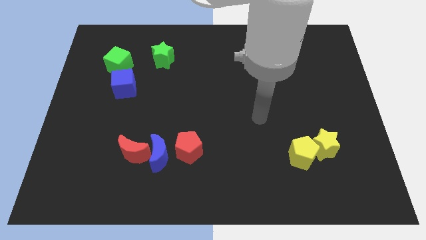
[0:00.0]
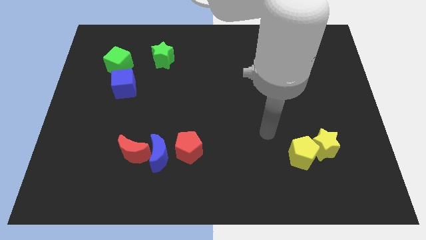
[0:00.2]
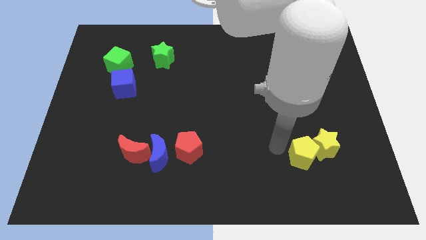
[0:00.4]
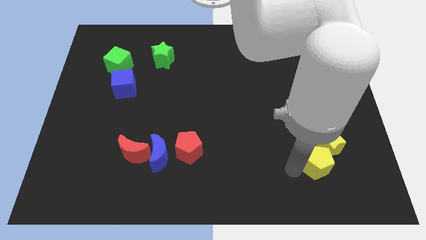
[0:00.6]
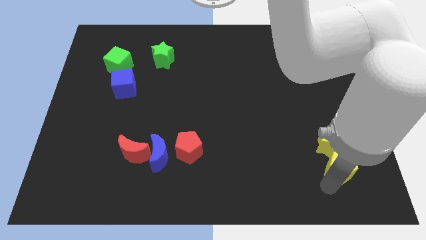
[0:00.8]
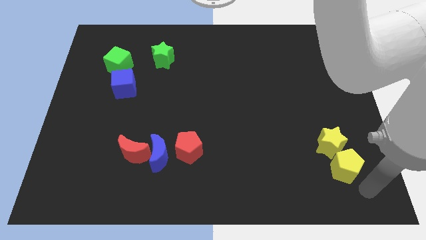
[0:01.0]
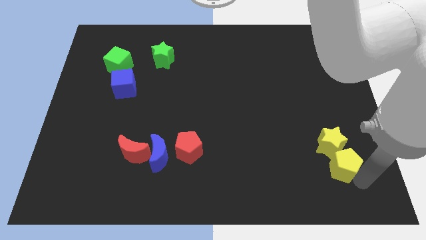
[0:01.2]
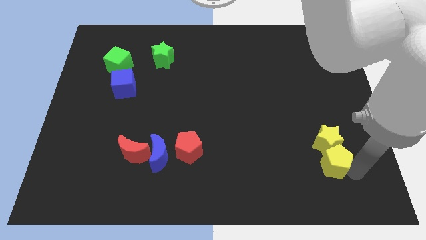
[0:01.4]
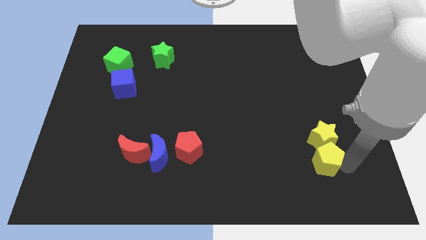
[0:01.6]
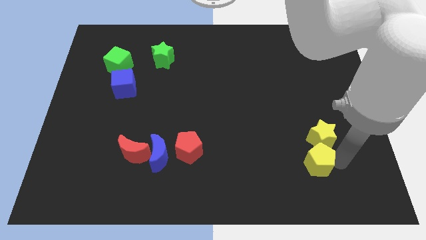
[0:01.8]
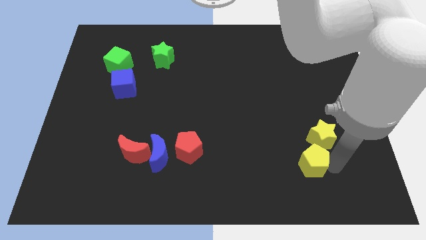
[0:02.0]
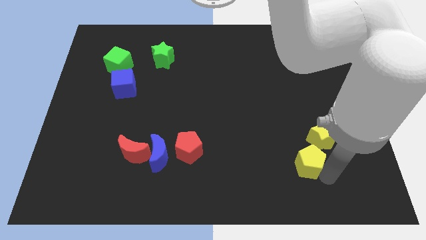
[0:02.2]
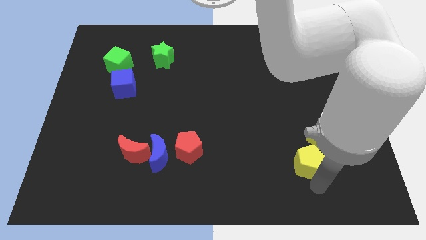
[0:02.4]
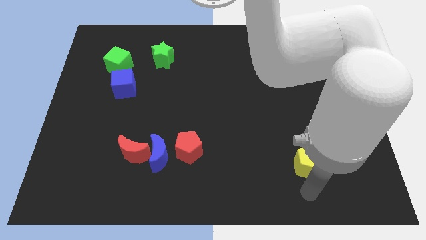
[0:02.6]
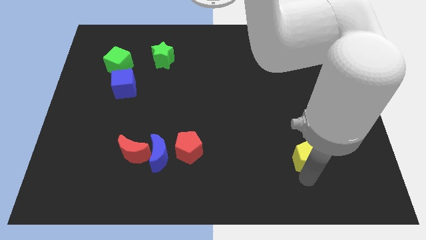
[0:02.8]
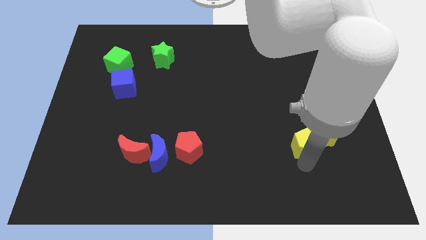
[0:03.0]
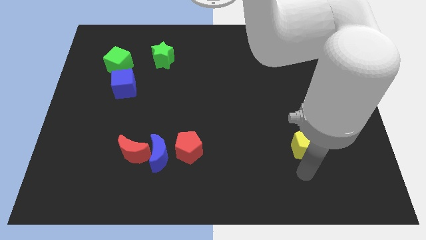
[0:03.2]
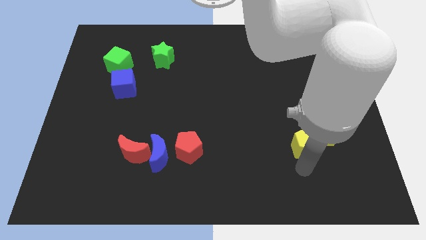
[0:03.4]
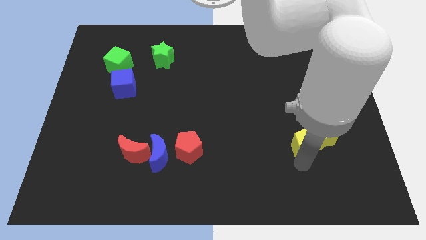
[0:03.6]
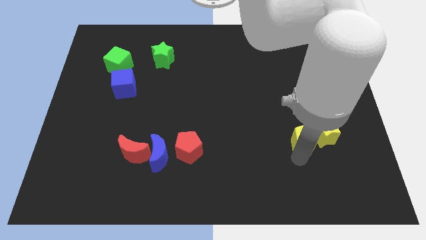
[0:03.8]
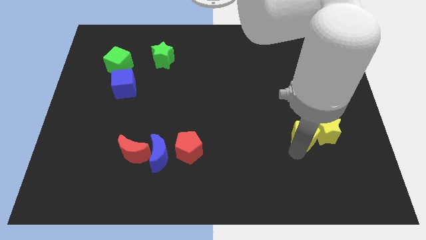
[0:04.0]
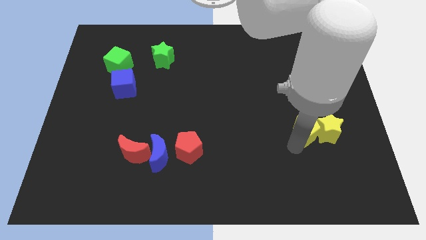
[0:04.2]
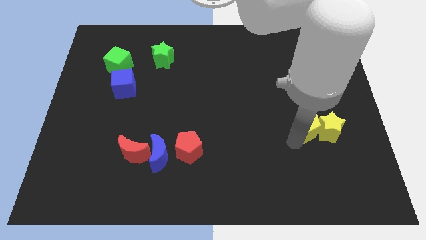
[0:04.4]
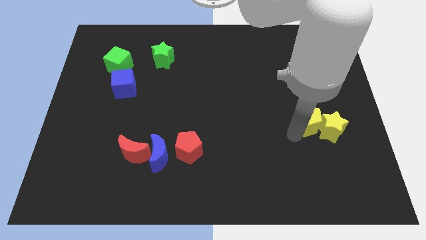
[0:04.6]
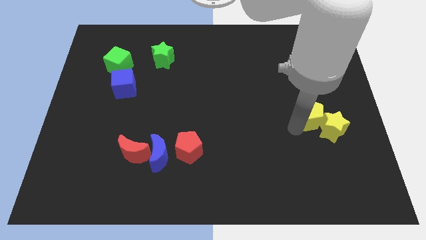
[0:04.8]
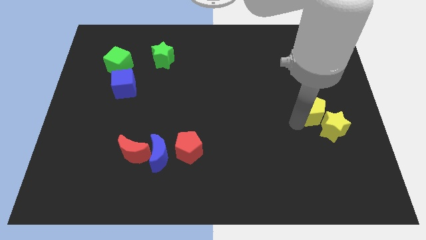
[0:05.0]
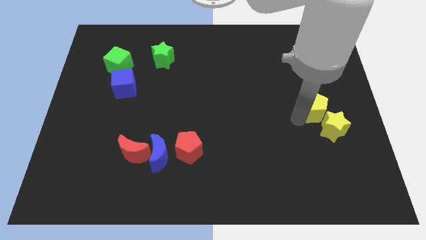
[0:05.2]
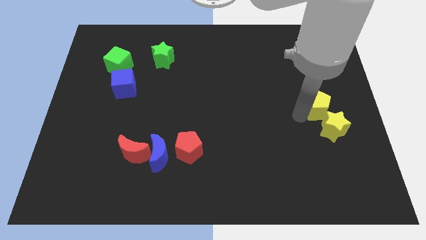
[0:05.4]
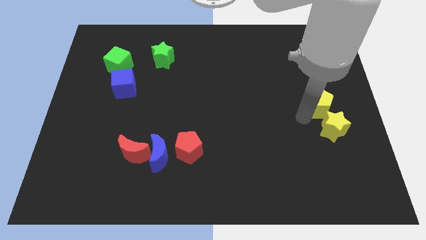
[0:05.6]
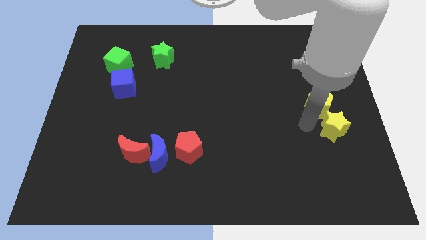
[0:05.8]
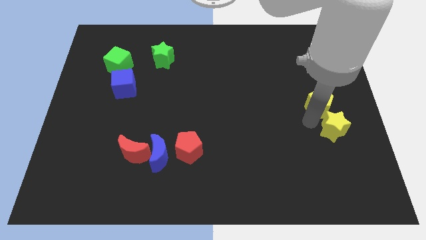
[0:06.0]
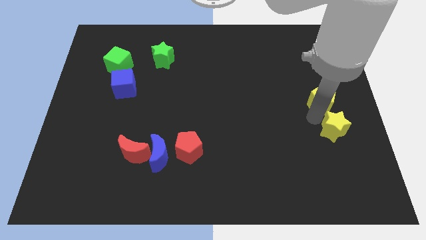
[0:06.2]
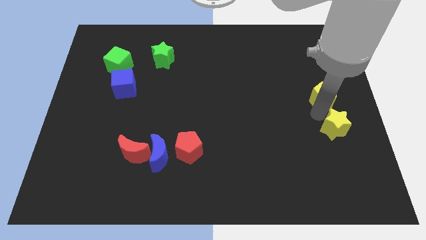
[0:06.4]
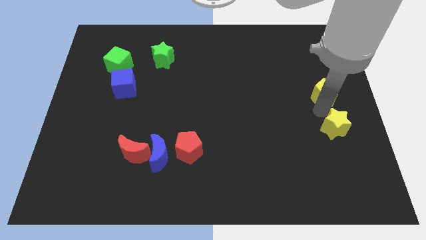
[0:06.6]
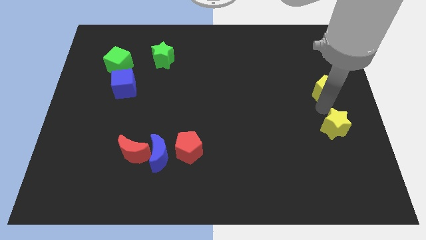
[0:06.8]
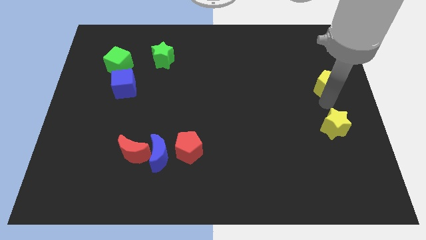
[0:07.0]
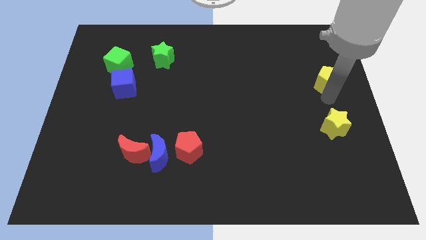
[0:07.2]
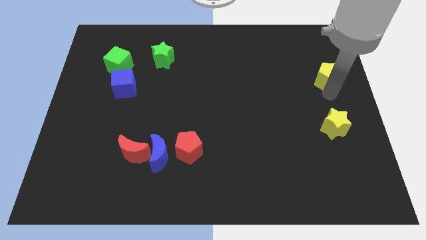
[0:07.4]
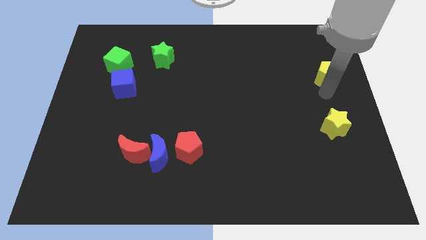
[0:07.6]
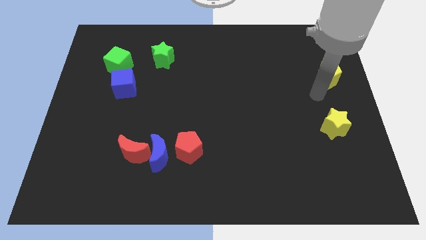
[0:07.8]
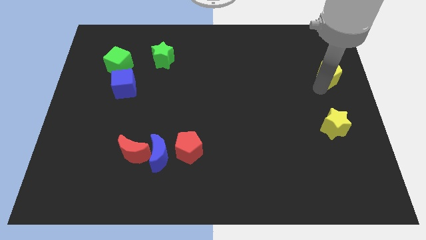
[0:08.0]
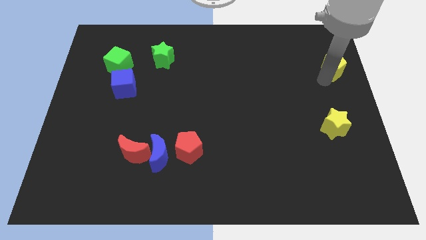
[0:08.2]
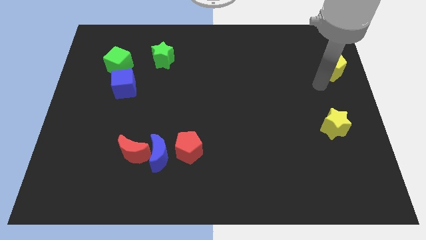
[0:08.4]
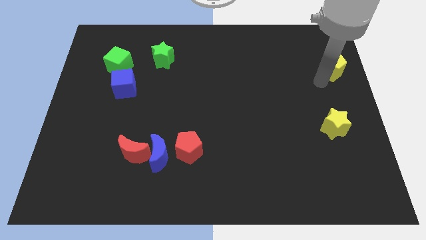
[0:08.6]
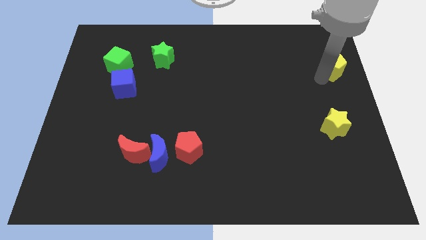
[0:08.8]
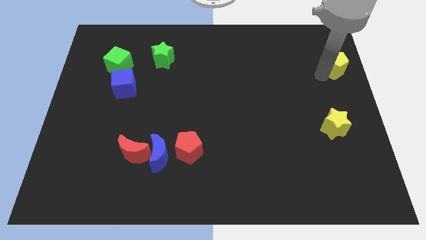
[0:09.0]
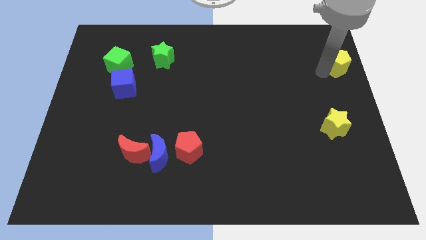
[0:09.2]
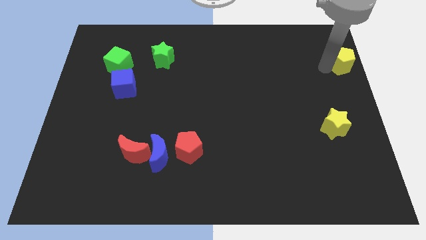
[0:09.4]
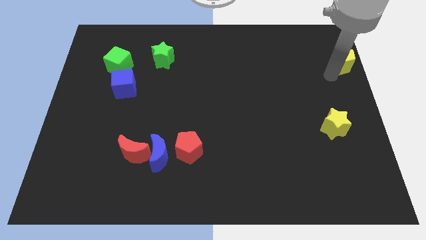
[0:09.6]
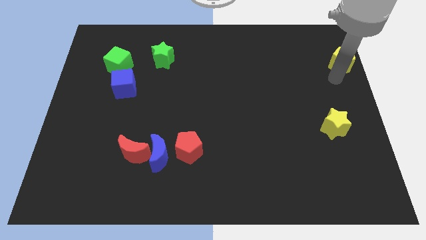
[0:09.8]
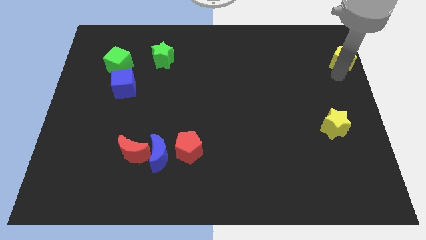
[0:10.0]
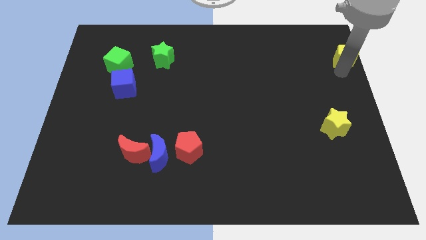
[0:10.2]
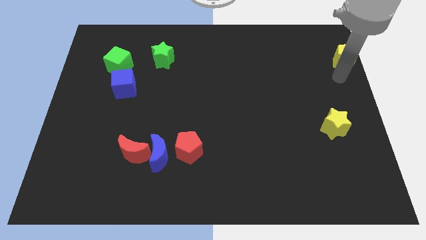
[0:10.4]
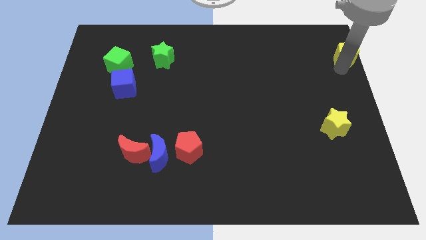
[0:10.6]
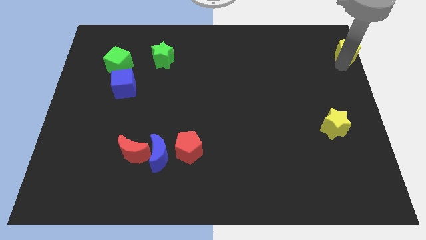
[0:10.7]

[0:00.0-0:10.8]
push the yellow pentagon to the top right corner

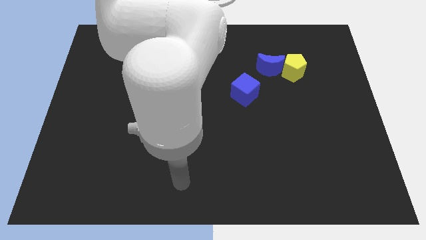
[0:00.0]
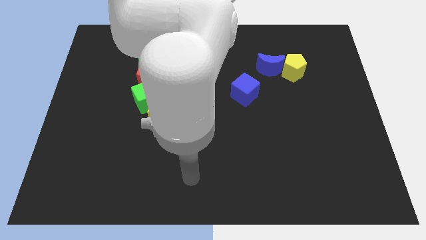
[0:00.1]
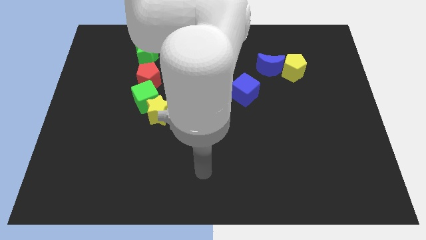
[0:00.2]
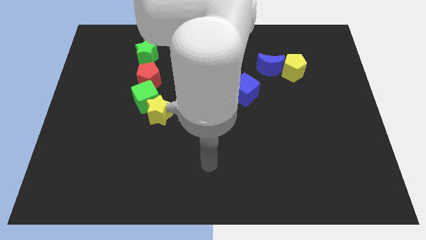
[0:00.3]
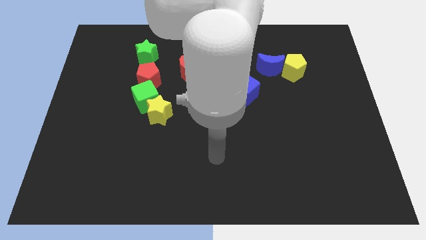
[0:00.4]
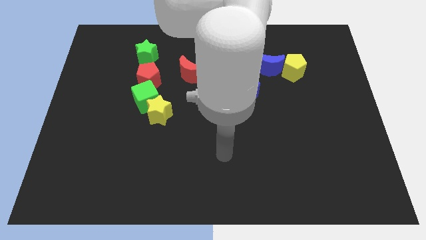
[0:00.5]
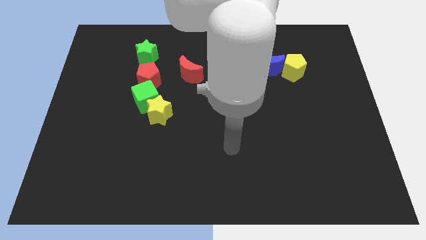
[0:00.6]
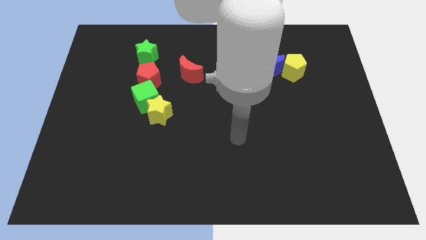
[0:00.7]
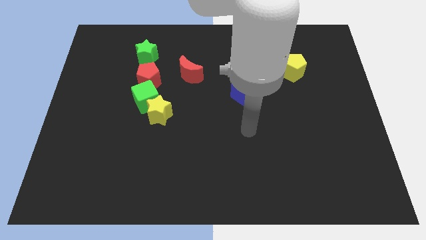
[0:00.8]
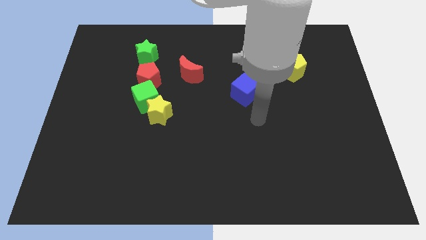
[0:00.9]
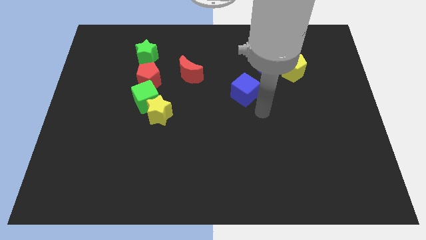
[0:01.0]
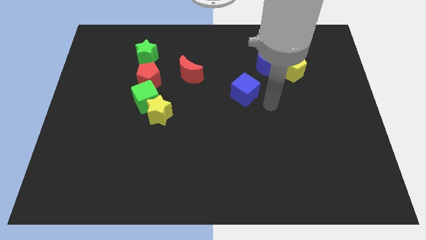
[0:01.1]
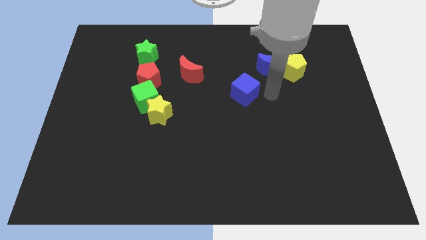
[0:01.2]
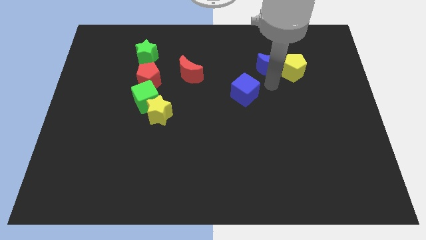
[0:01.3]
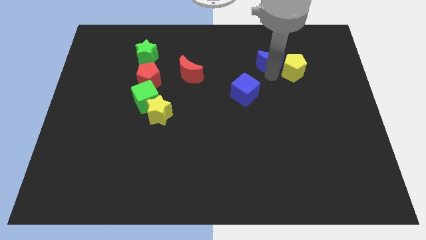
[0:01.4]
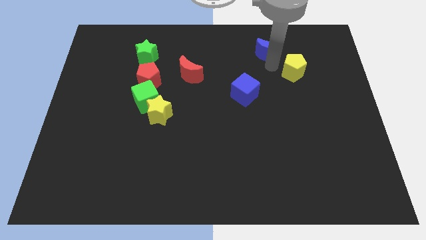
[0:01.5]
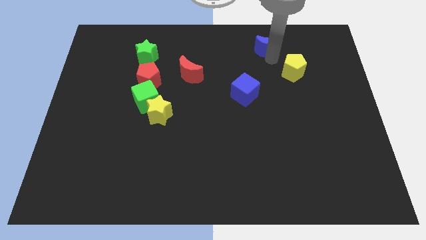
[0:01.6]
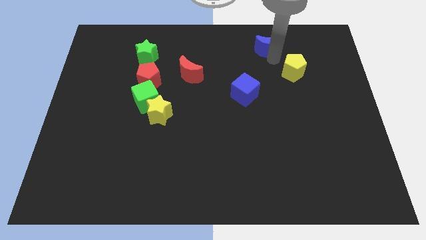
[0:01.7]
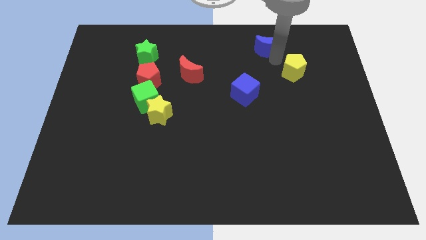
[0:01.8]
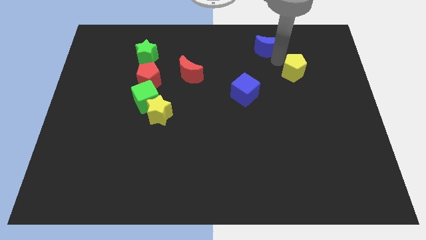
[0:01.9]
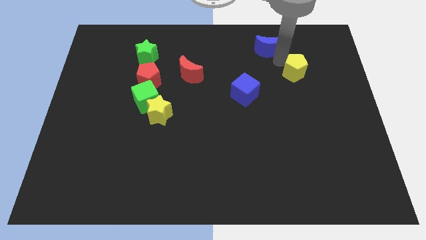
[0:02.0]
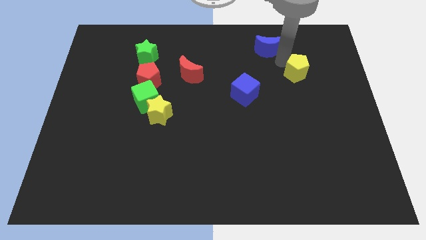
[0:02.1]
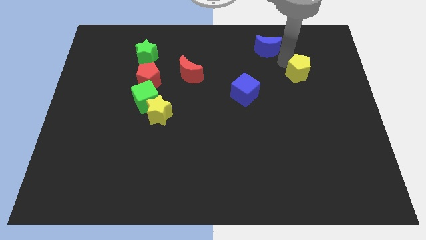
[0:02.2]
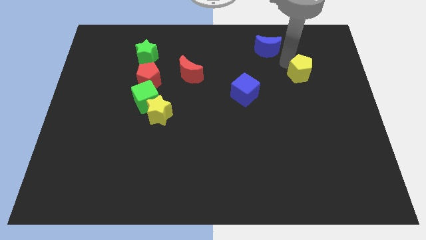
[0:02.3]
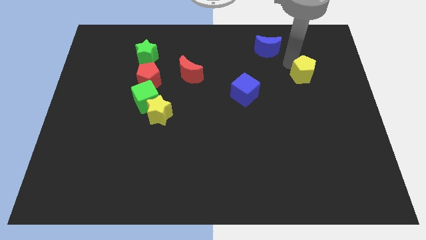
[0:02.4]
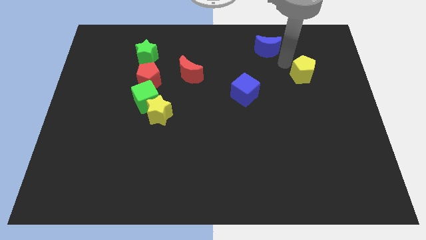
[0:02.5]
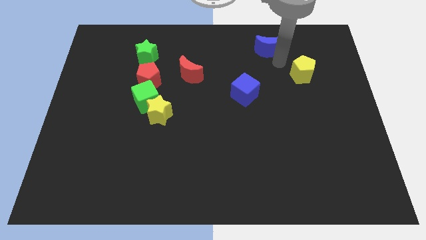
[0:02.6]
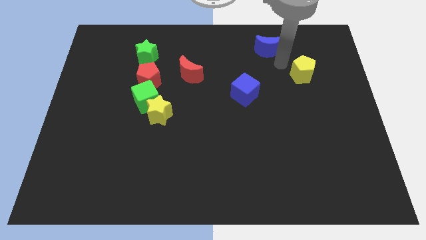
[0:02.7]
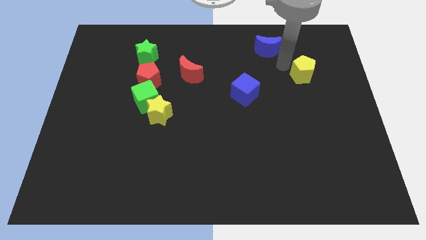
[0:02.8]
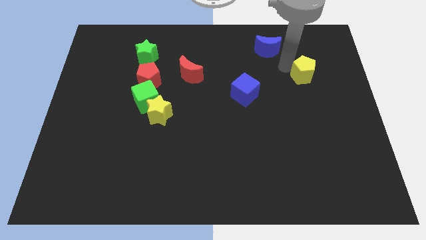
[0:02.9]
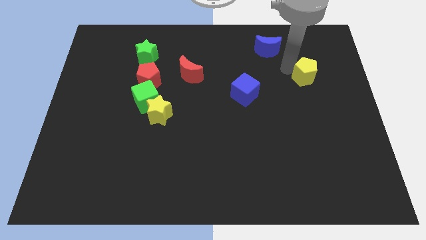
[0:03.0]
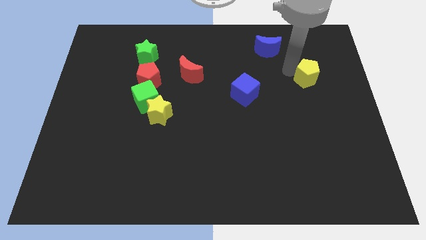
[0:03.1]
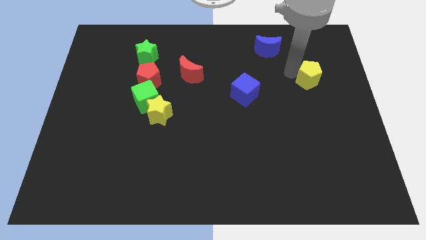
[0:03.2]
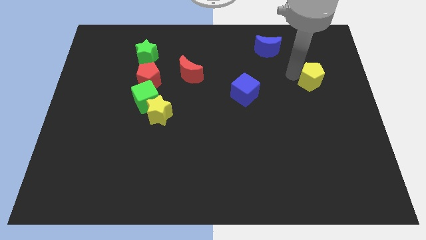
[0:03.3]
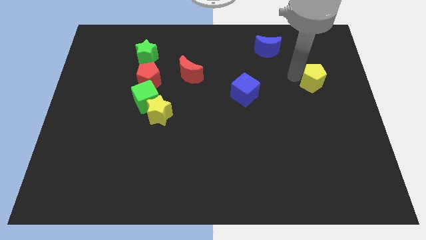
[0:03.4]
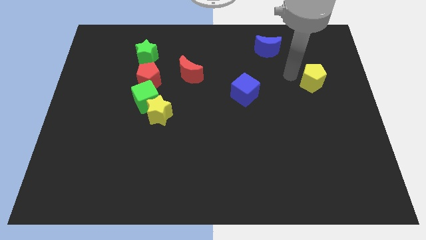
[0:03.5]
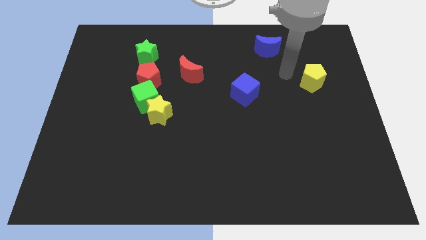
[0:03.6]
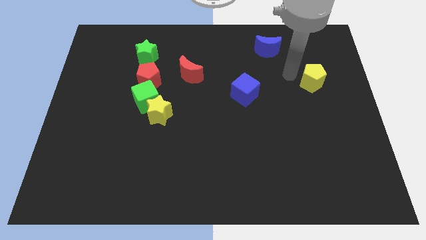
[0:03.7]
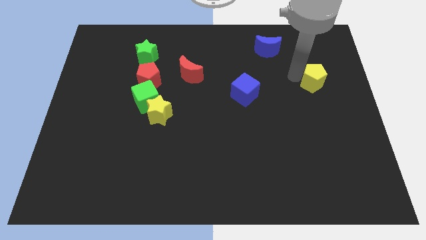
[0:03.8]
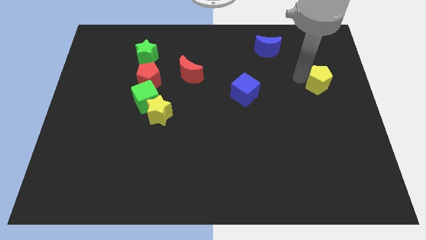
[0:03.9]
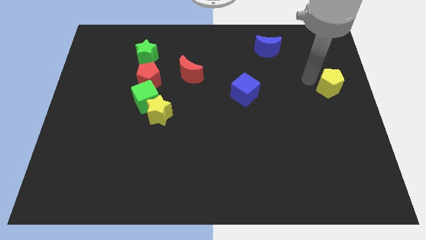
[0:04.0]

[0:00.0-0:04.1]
move the yellow pentagon to the right side
